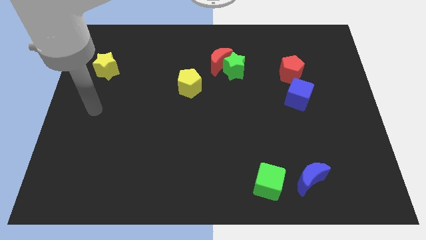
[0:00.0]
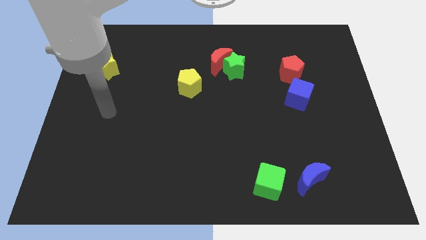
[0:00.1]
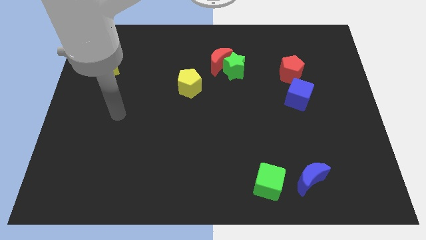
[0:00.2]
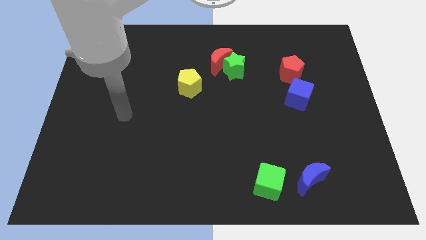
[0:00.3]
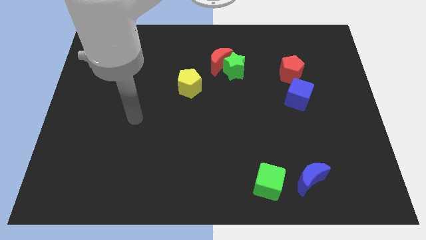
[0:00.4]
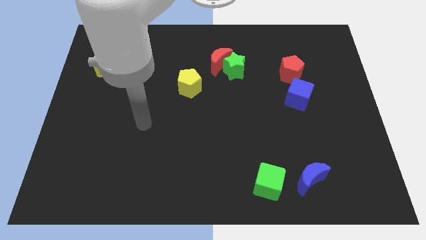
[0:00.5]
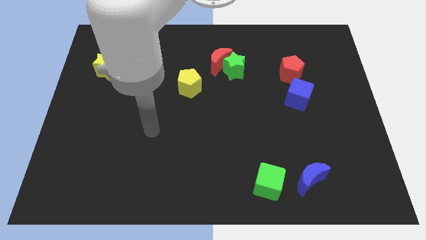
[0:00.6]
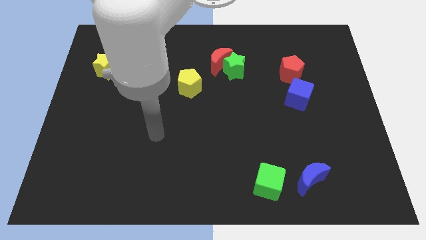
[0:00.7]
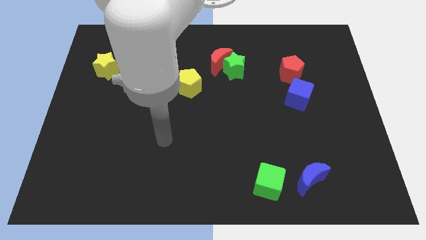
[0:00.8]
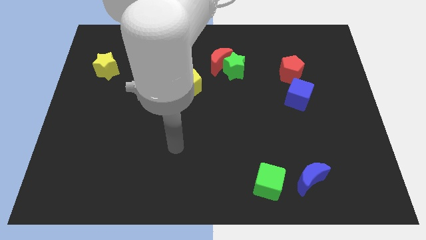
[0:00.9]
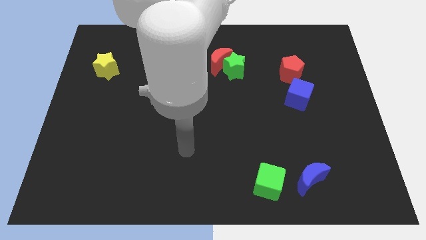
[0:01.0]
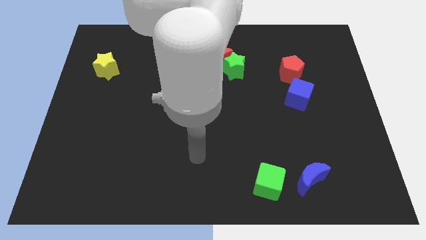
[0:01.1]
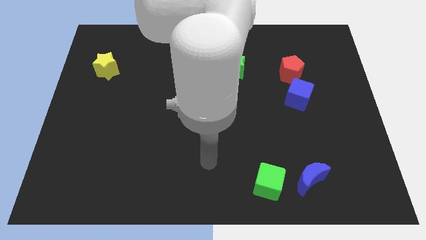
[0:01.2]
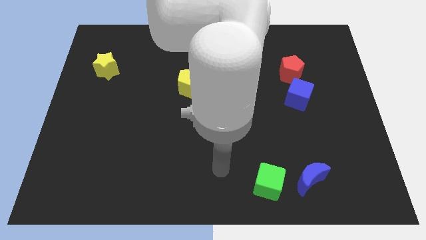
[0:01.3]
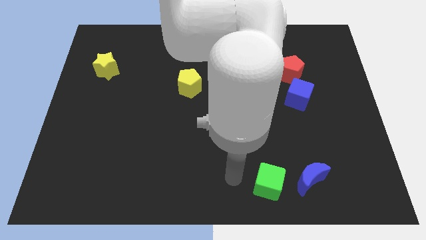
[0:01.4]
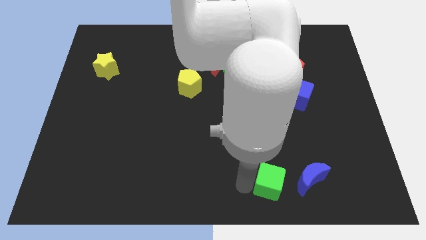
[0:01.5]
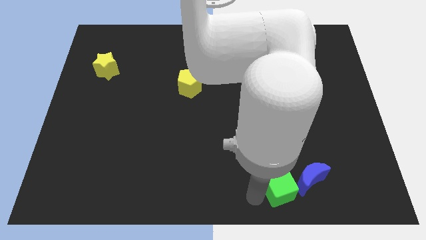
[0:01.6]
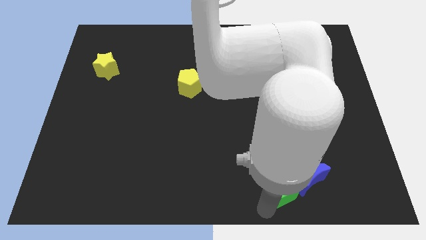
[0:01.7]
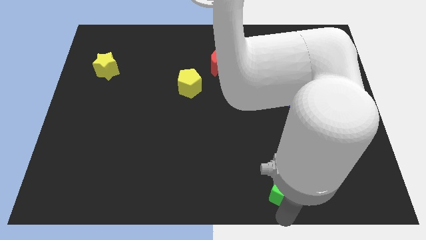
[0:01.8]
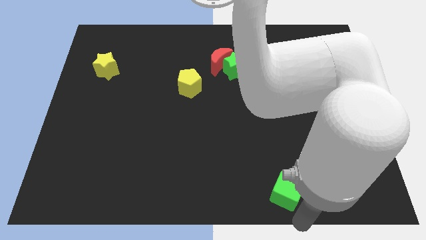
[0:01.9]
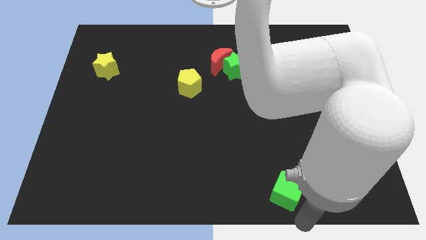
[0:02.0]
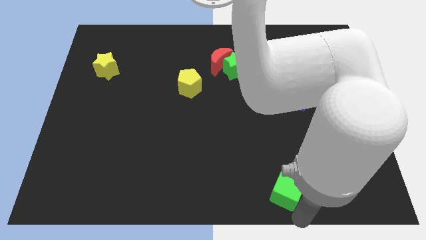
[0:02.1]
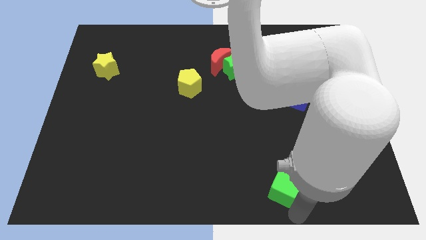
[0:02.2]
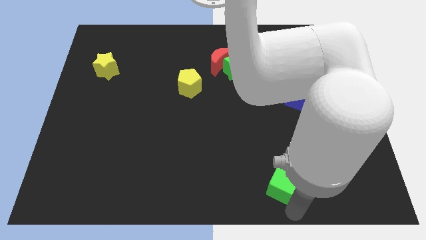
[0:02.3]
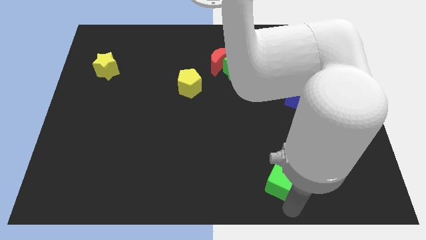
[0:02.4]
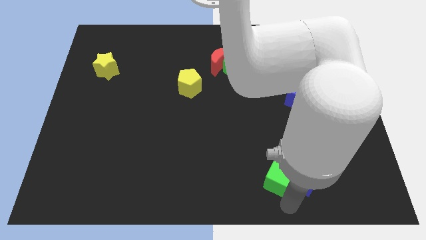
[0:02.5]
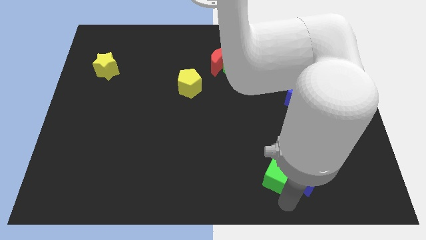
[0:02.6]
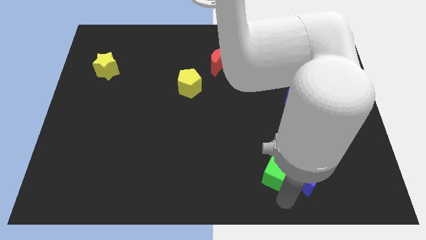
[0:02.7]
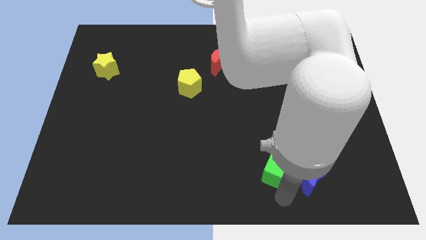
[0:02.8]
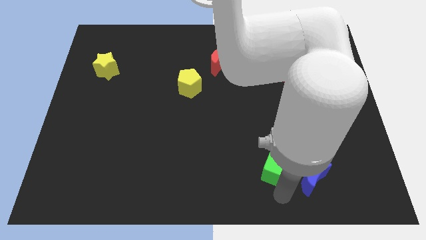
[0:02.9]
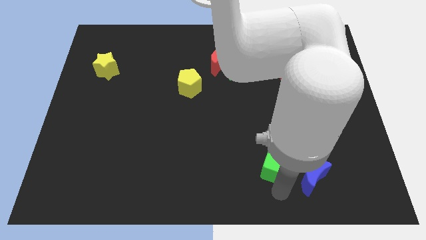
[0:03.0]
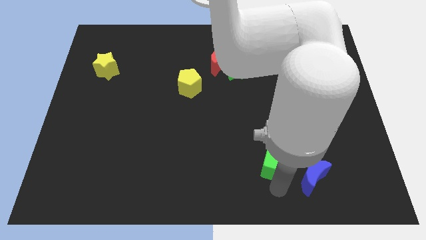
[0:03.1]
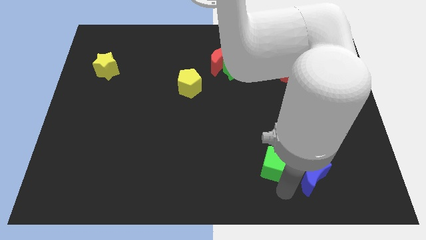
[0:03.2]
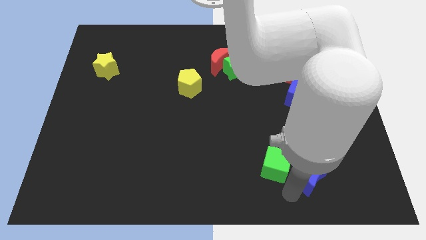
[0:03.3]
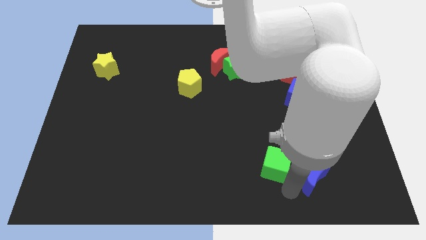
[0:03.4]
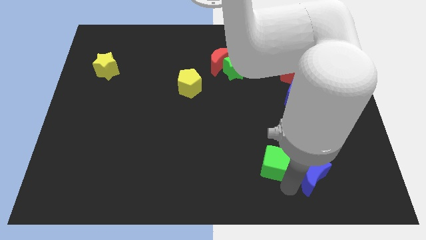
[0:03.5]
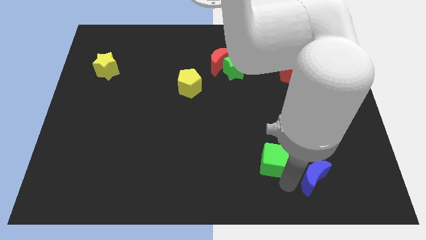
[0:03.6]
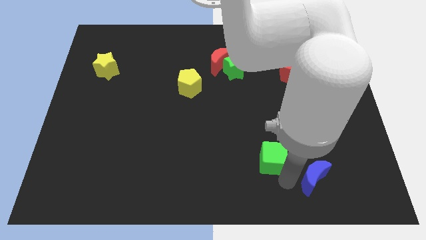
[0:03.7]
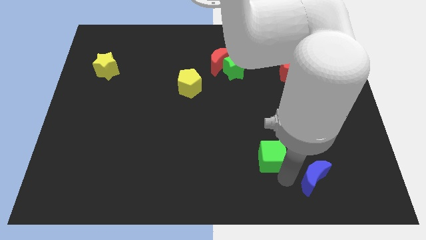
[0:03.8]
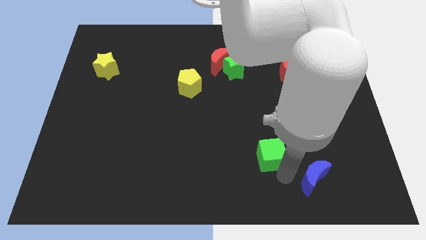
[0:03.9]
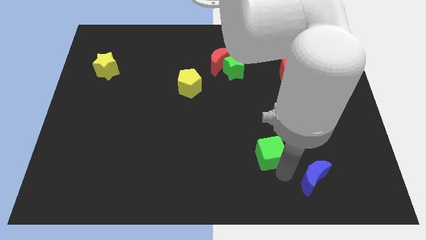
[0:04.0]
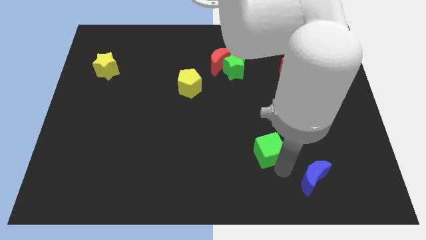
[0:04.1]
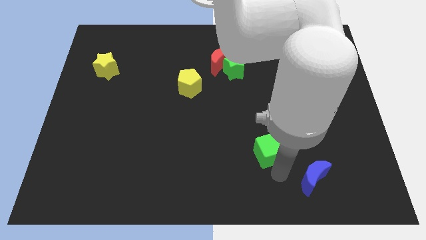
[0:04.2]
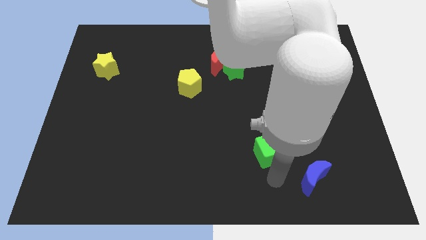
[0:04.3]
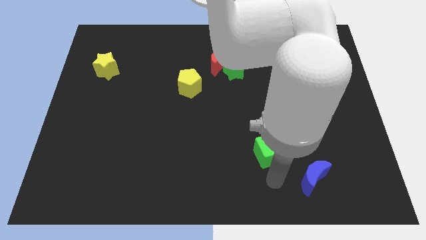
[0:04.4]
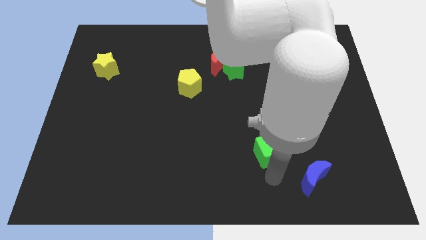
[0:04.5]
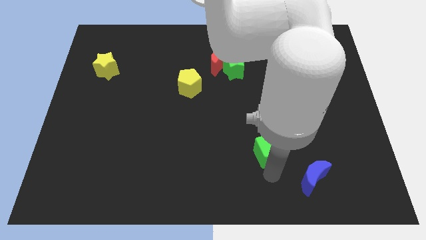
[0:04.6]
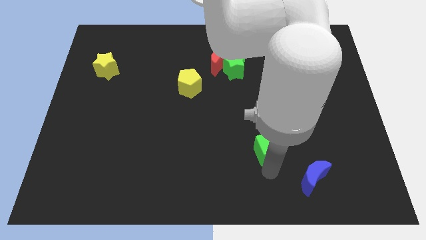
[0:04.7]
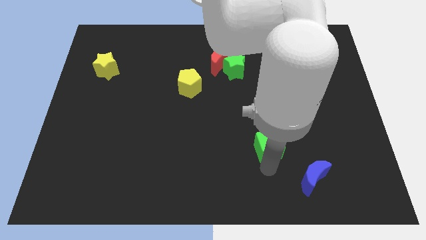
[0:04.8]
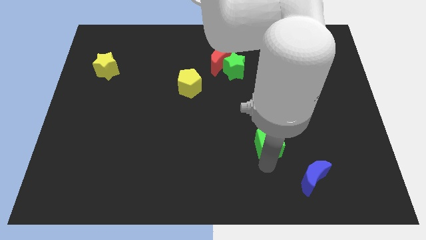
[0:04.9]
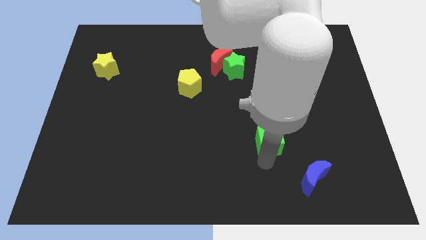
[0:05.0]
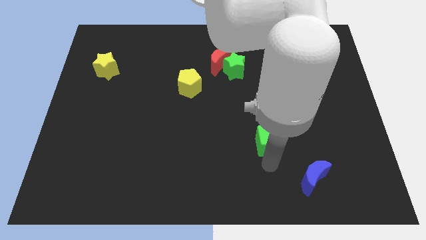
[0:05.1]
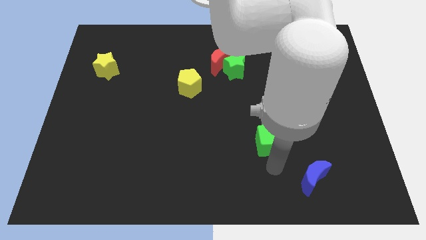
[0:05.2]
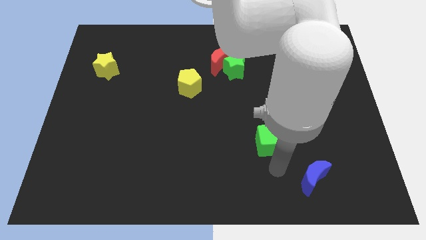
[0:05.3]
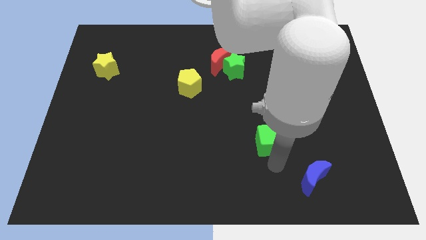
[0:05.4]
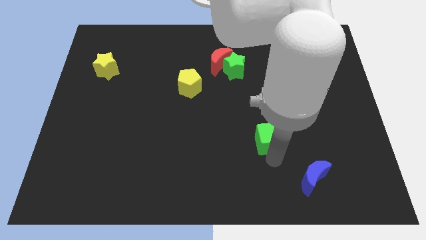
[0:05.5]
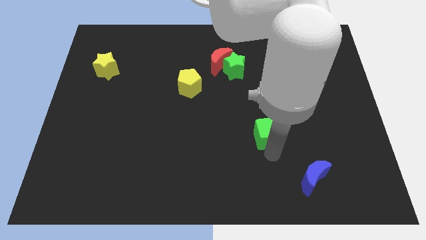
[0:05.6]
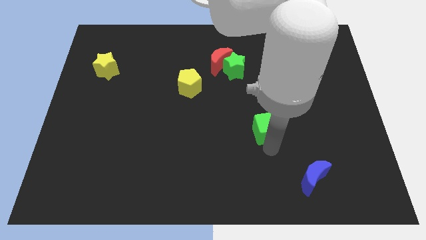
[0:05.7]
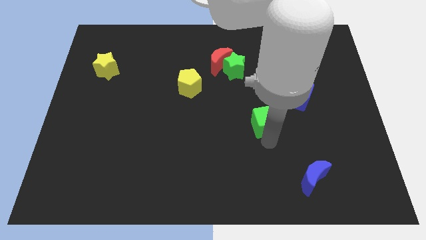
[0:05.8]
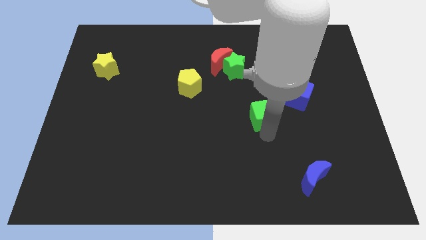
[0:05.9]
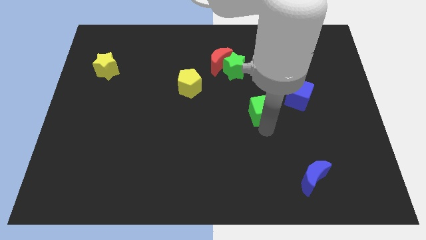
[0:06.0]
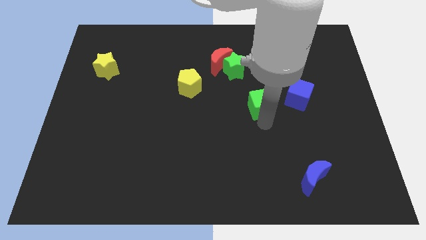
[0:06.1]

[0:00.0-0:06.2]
push the green cube up

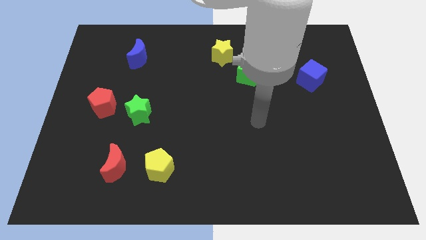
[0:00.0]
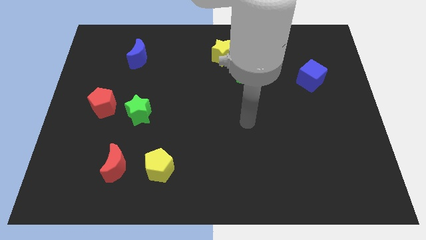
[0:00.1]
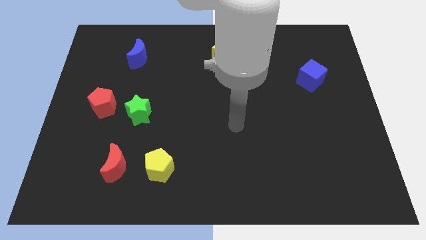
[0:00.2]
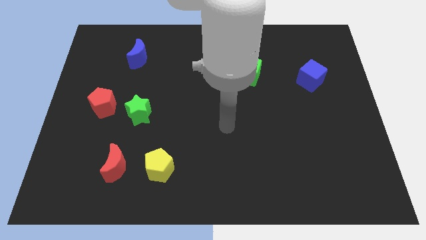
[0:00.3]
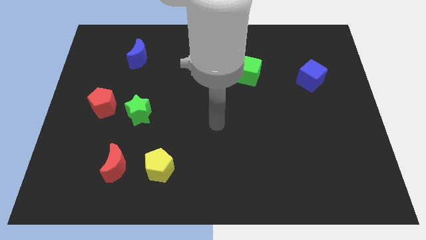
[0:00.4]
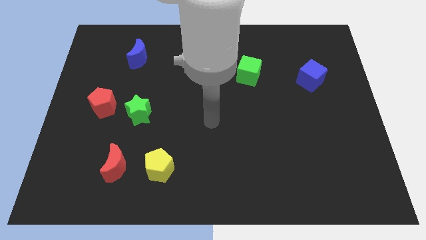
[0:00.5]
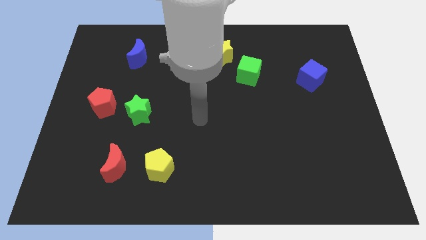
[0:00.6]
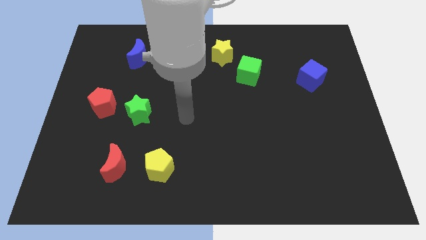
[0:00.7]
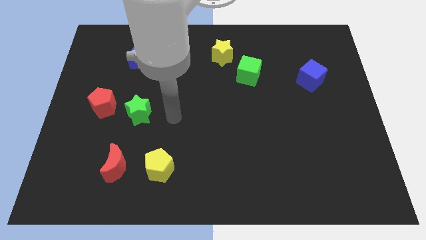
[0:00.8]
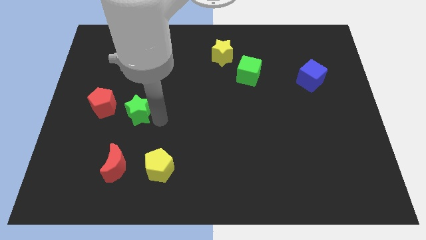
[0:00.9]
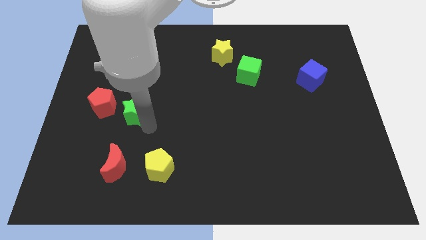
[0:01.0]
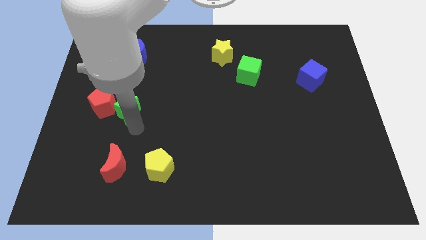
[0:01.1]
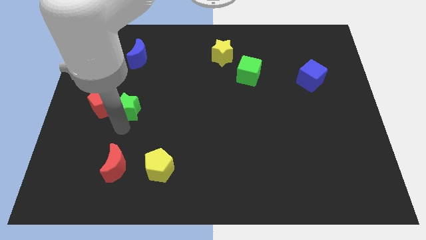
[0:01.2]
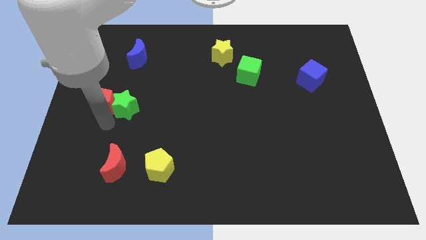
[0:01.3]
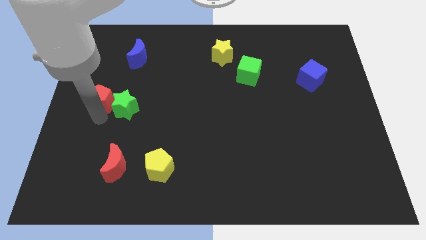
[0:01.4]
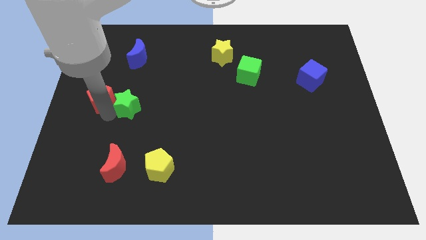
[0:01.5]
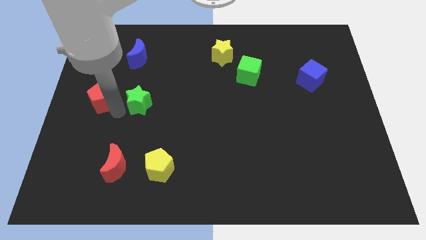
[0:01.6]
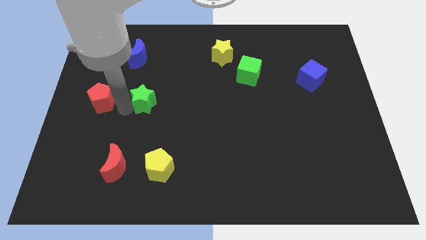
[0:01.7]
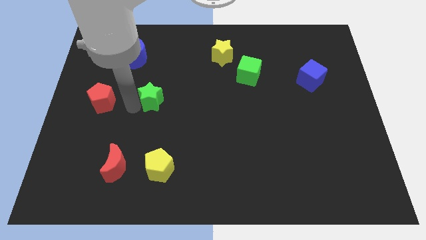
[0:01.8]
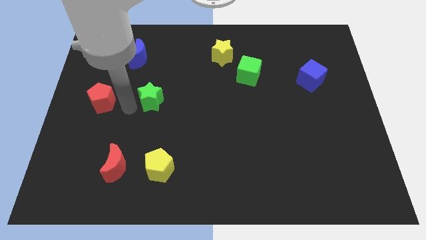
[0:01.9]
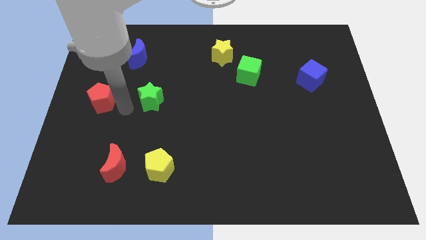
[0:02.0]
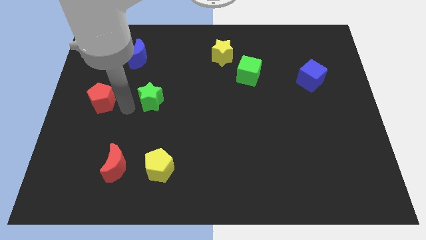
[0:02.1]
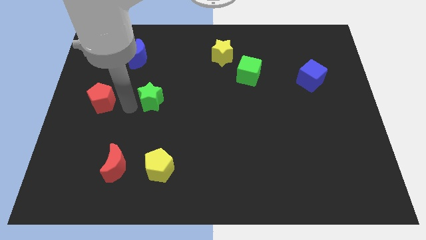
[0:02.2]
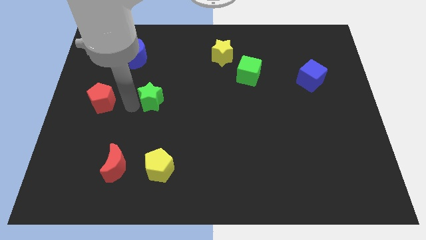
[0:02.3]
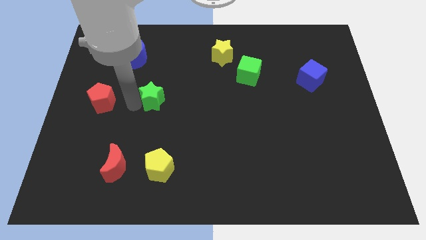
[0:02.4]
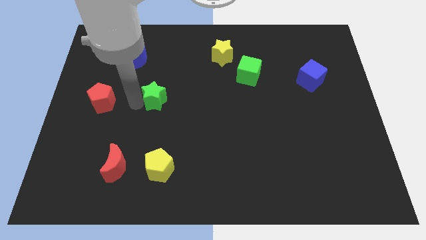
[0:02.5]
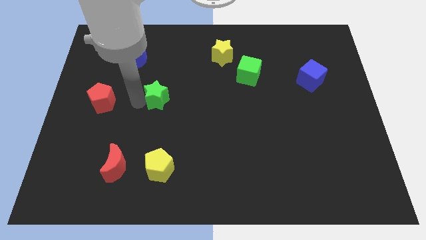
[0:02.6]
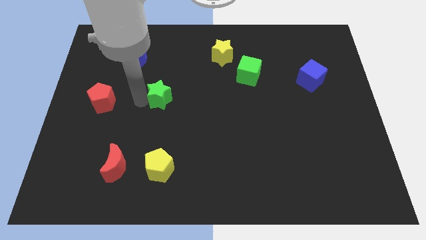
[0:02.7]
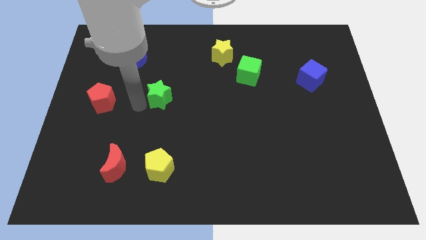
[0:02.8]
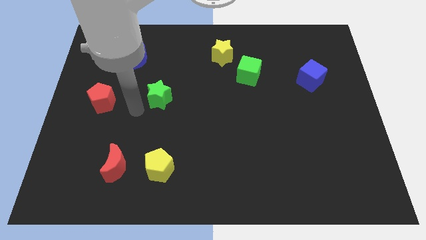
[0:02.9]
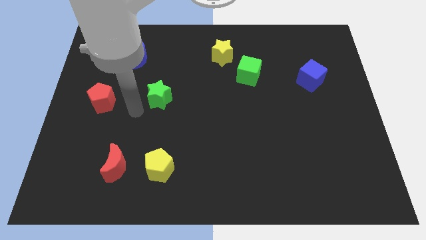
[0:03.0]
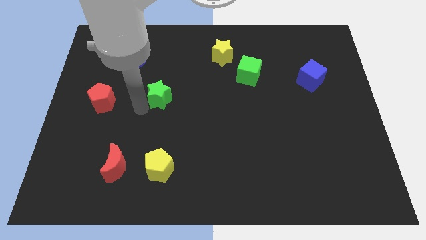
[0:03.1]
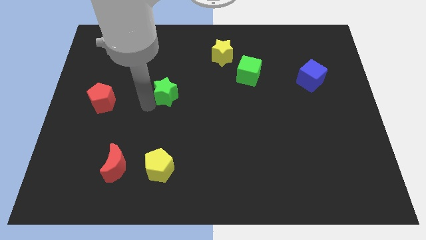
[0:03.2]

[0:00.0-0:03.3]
slightly push the green star up and to the right diagonally
